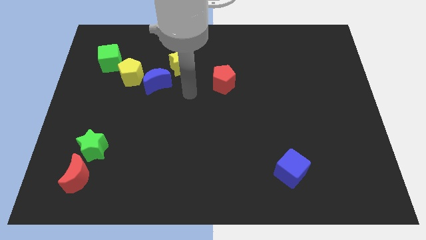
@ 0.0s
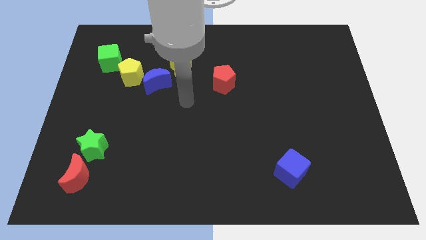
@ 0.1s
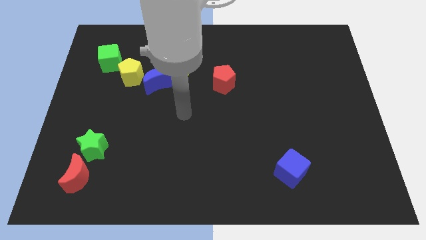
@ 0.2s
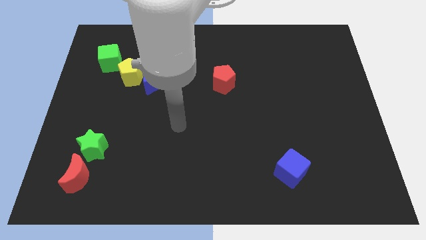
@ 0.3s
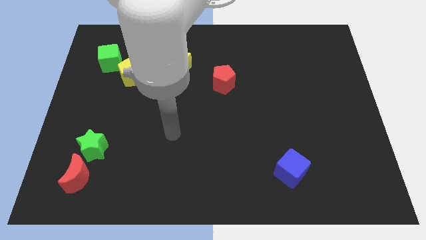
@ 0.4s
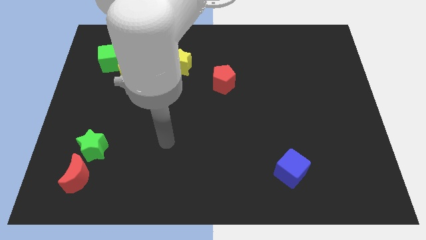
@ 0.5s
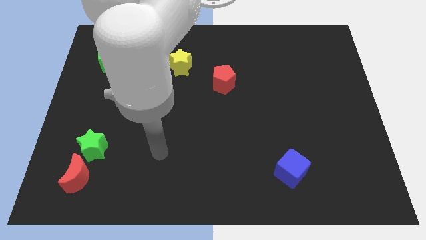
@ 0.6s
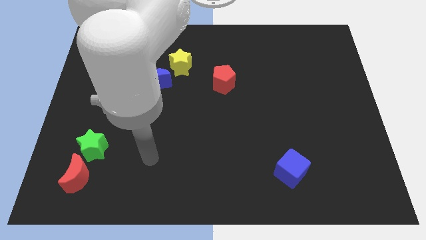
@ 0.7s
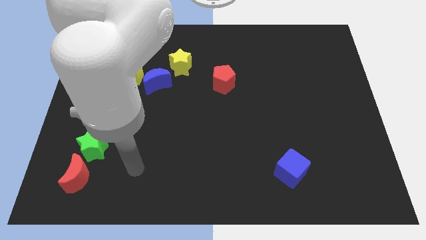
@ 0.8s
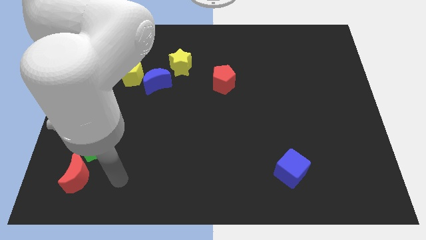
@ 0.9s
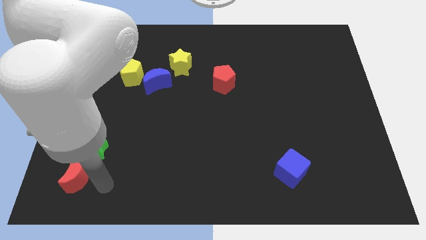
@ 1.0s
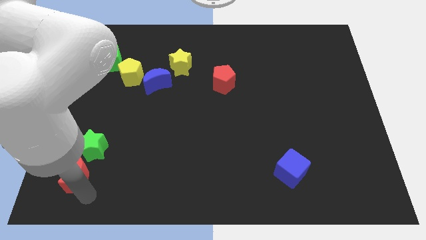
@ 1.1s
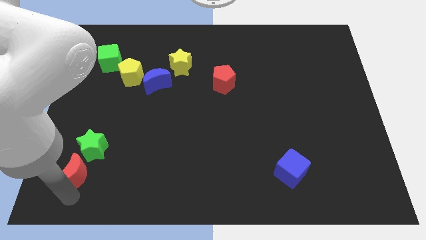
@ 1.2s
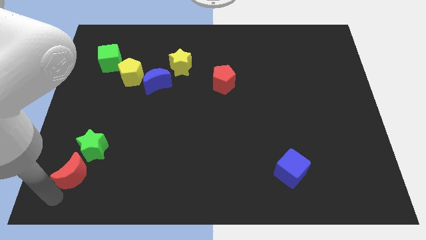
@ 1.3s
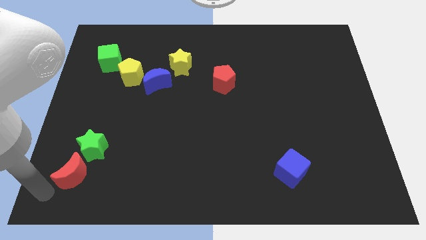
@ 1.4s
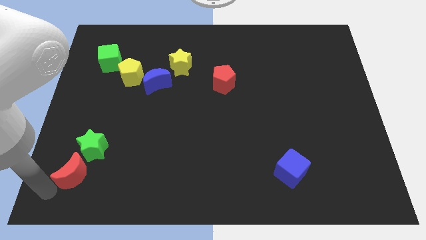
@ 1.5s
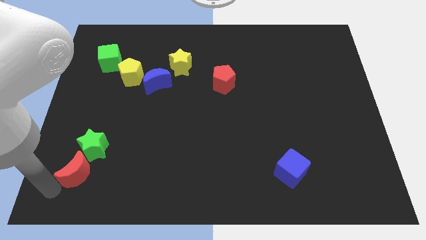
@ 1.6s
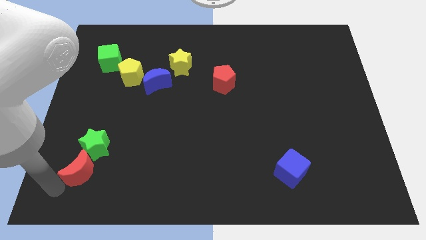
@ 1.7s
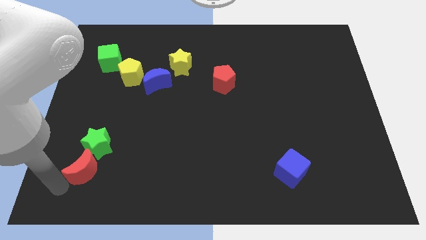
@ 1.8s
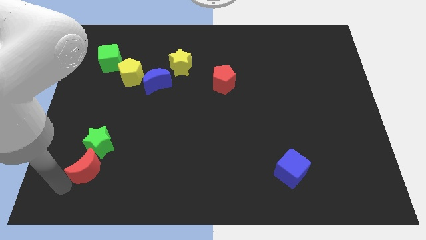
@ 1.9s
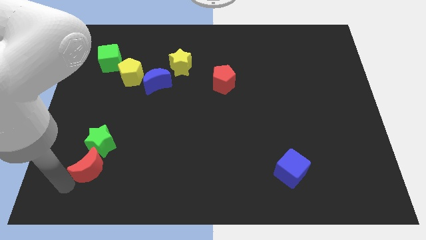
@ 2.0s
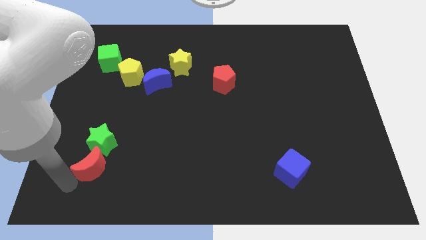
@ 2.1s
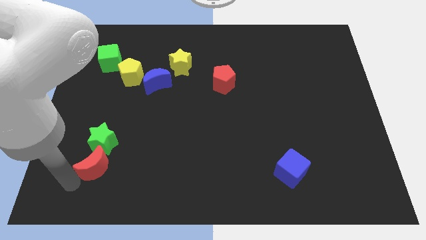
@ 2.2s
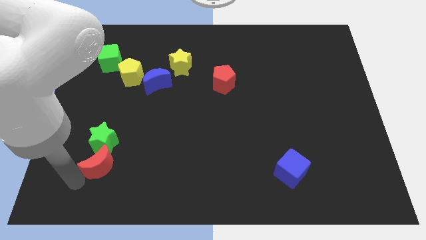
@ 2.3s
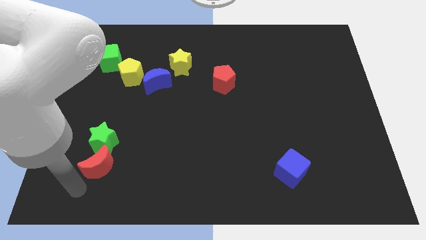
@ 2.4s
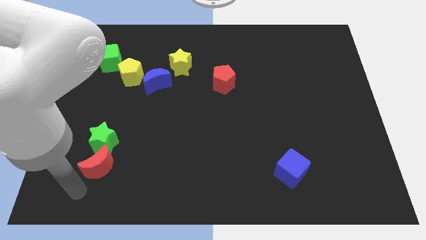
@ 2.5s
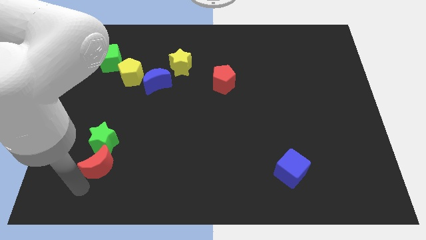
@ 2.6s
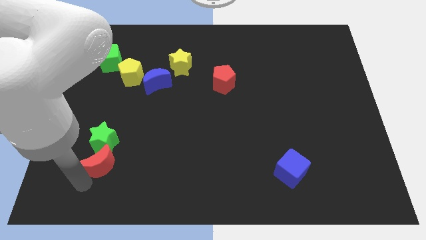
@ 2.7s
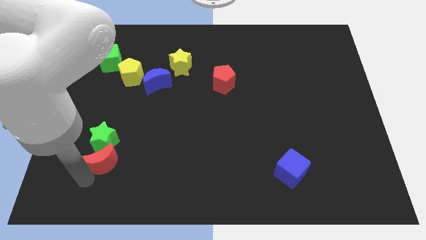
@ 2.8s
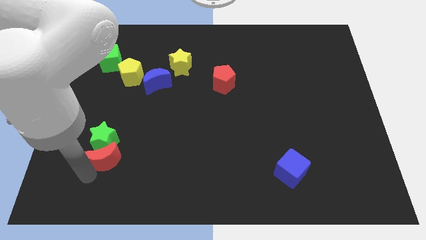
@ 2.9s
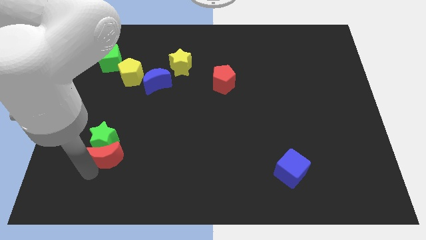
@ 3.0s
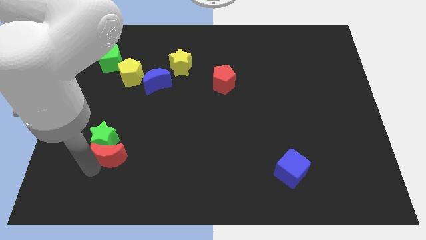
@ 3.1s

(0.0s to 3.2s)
push the red moon diagonally upwards and to the right a little

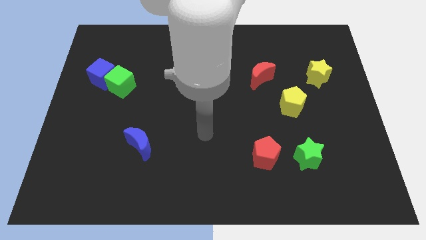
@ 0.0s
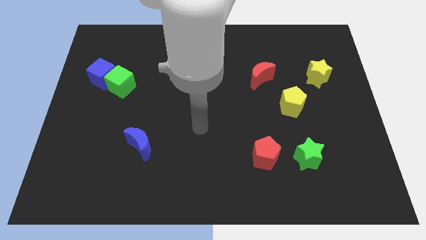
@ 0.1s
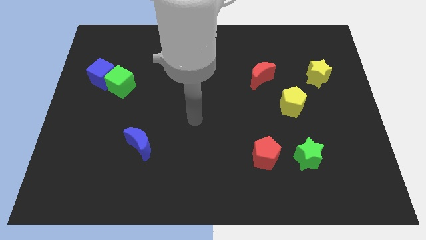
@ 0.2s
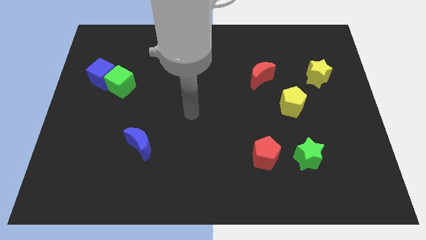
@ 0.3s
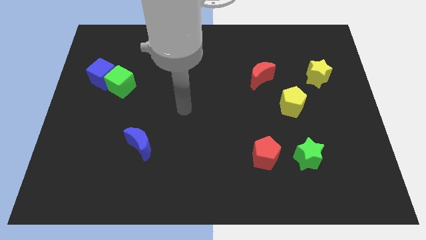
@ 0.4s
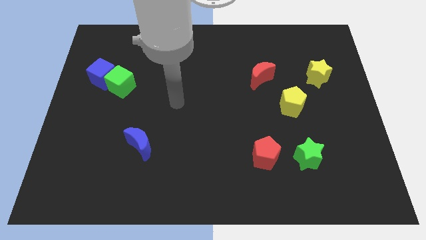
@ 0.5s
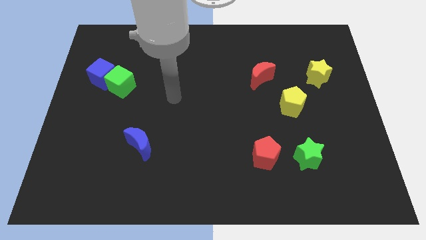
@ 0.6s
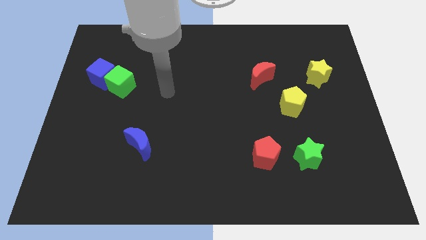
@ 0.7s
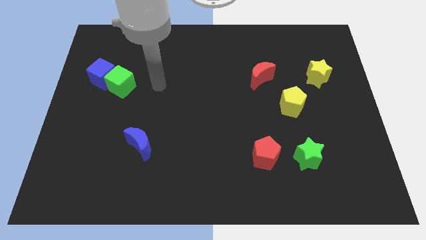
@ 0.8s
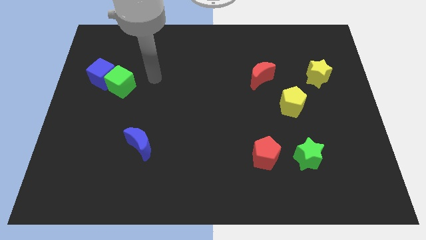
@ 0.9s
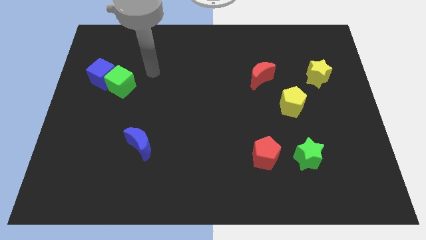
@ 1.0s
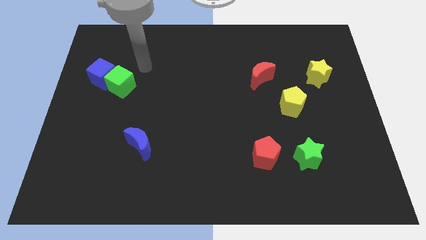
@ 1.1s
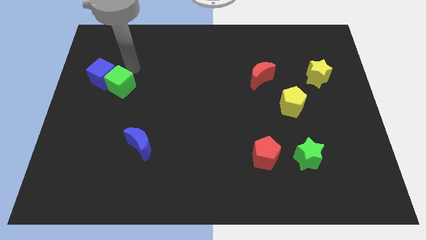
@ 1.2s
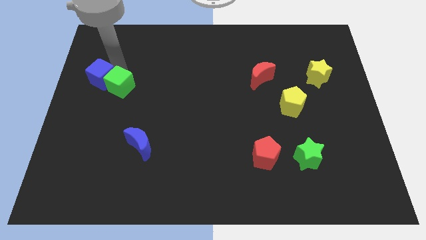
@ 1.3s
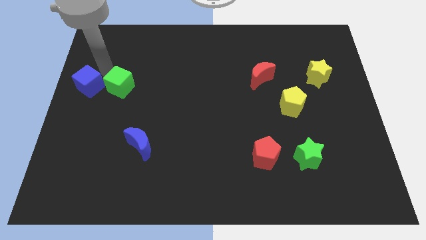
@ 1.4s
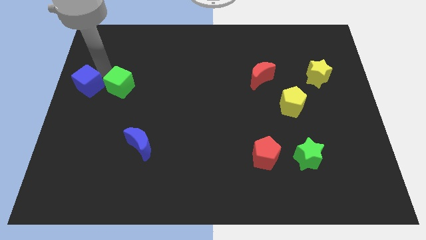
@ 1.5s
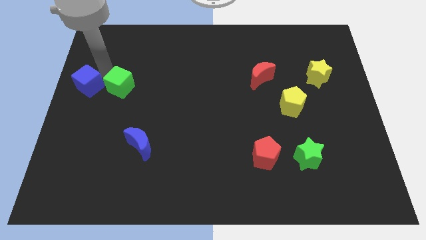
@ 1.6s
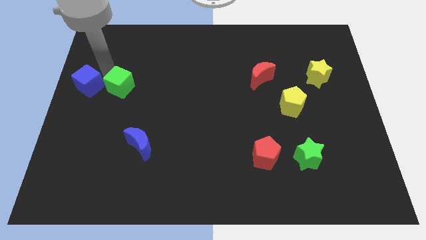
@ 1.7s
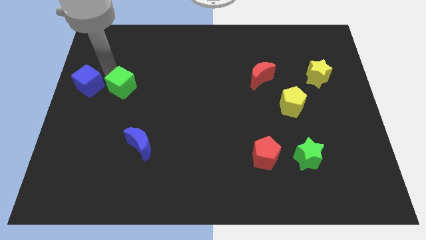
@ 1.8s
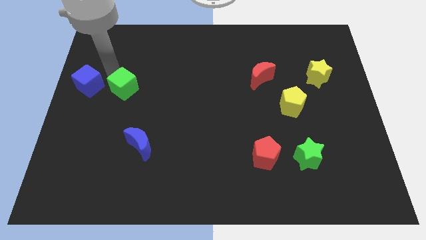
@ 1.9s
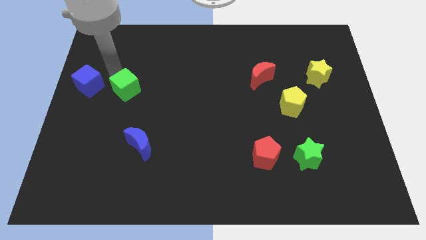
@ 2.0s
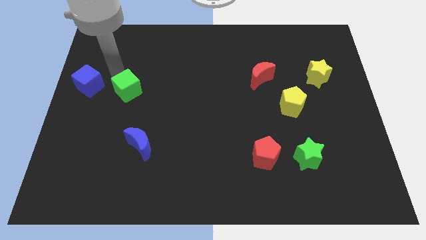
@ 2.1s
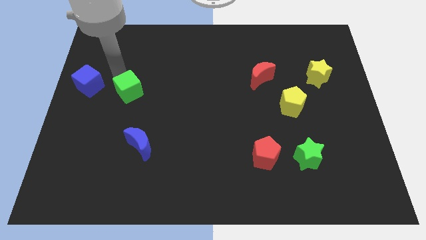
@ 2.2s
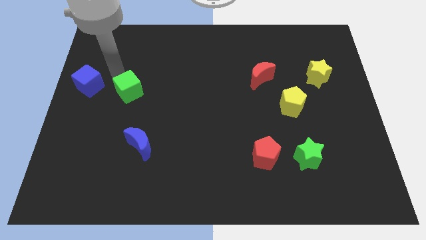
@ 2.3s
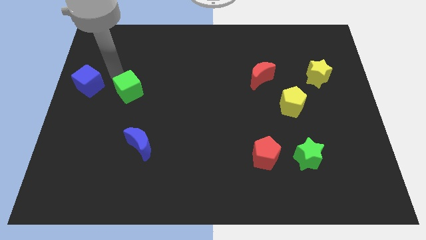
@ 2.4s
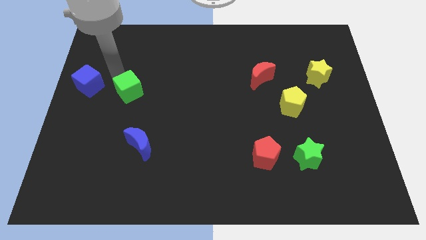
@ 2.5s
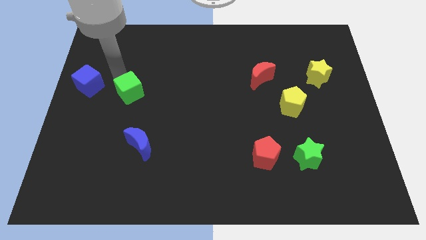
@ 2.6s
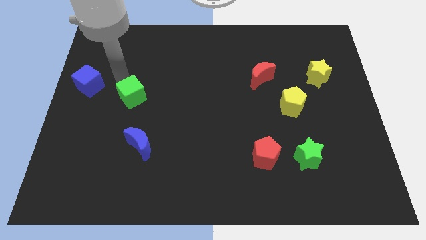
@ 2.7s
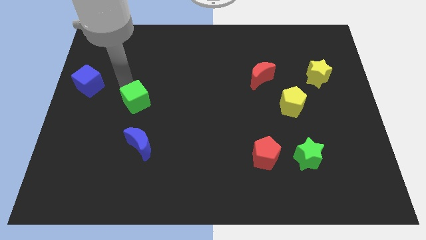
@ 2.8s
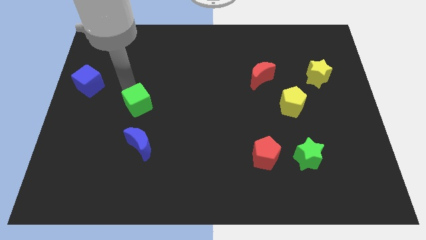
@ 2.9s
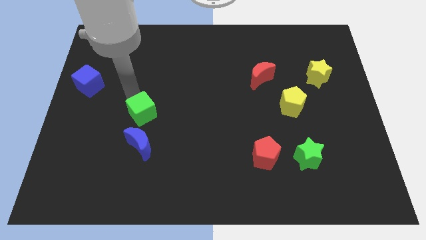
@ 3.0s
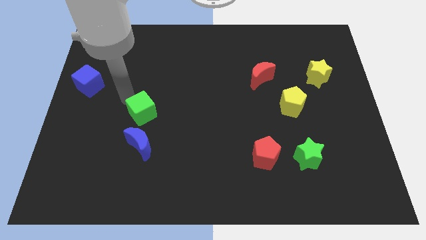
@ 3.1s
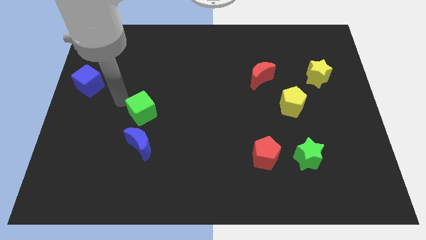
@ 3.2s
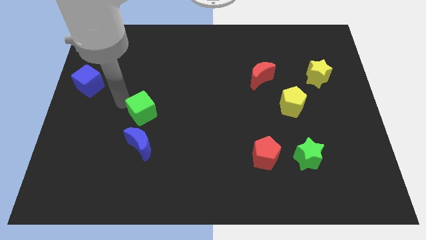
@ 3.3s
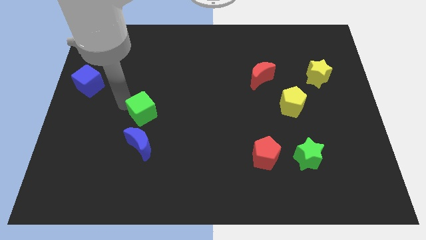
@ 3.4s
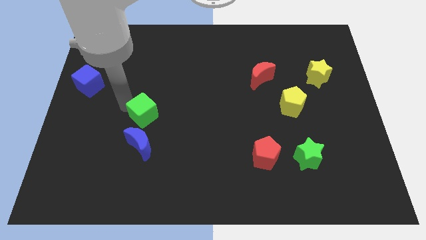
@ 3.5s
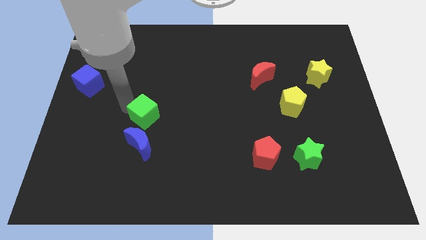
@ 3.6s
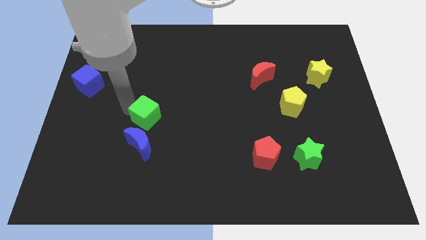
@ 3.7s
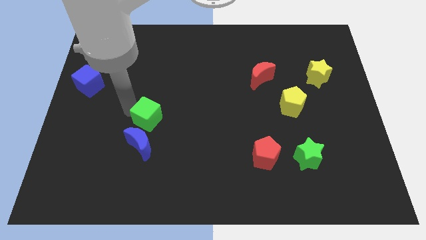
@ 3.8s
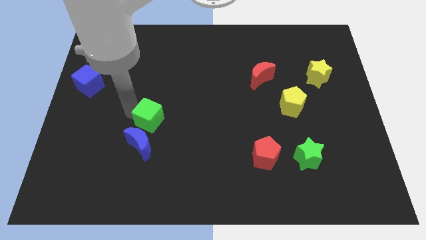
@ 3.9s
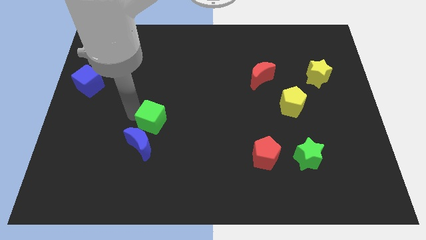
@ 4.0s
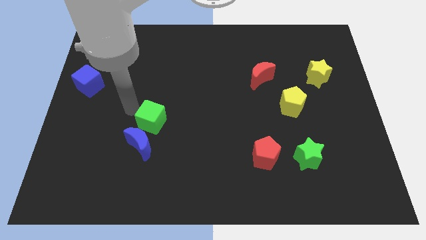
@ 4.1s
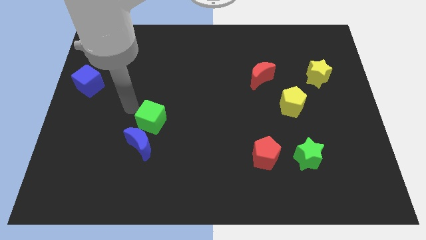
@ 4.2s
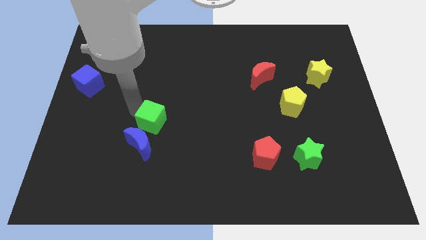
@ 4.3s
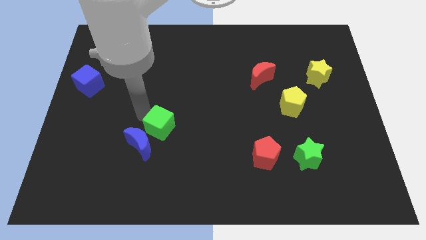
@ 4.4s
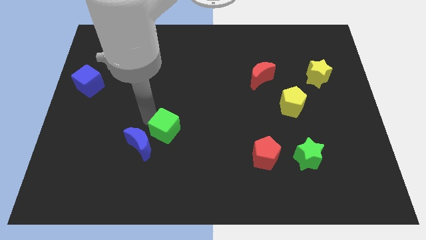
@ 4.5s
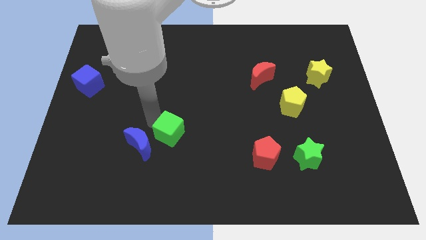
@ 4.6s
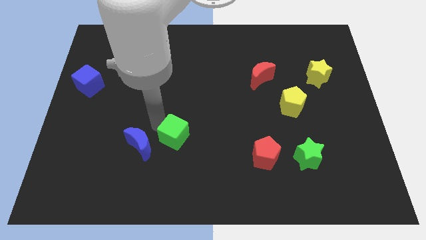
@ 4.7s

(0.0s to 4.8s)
slide the green cube down and to the right
